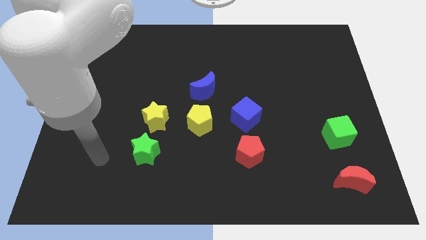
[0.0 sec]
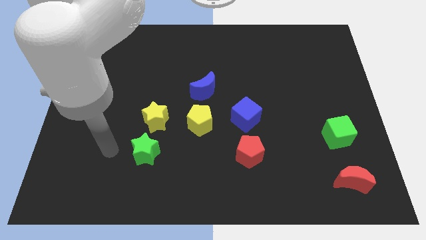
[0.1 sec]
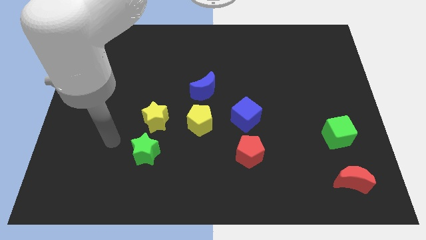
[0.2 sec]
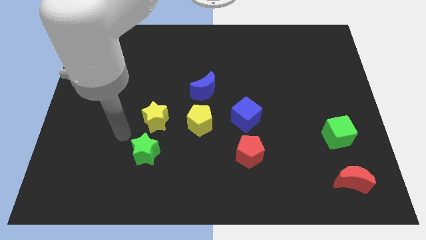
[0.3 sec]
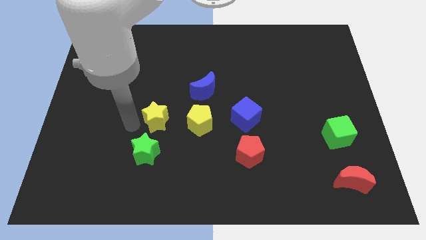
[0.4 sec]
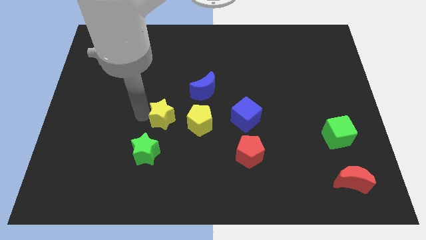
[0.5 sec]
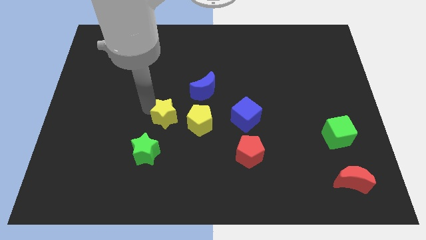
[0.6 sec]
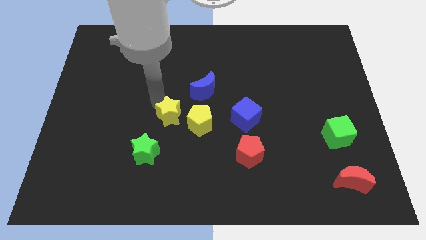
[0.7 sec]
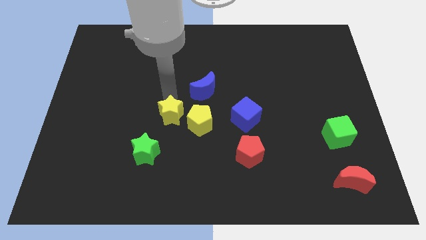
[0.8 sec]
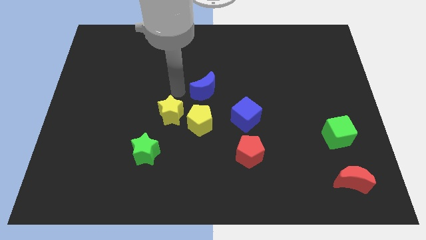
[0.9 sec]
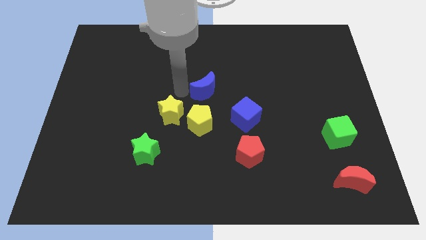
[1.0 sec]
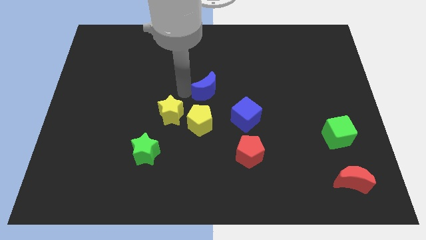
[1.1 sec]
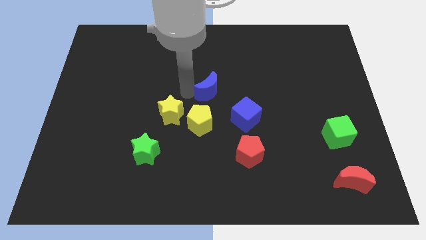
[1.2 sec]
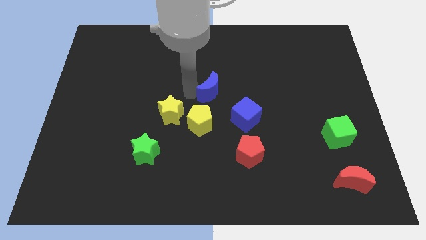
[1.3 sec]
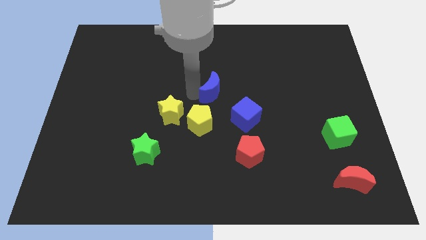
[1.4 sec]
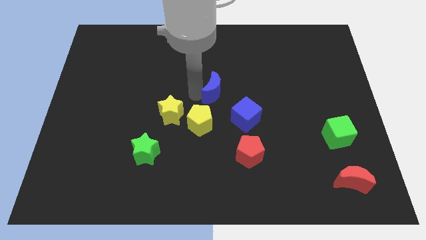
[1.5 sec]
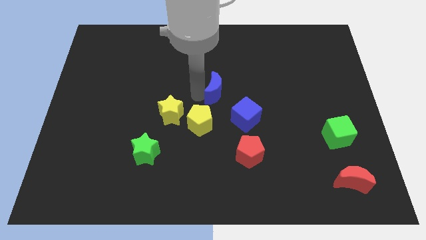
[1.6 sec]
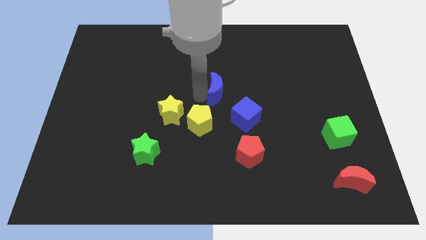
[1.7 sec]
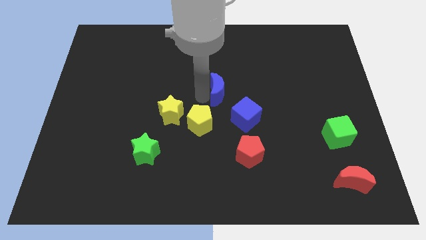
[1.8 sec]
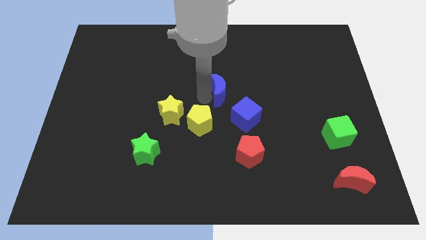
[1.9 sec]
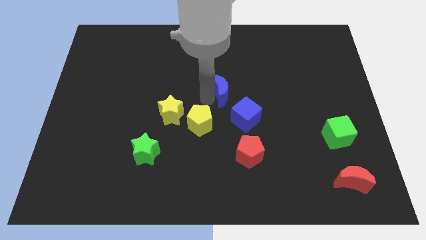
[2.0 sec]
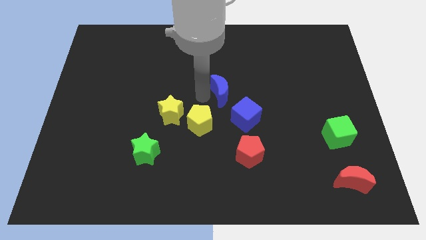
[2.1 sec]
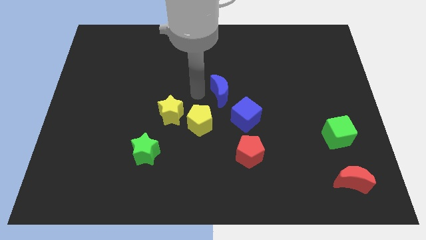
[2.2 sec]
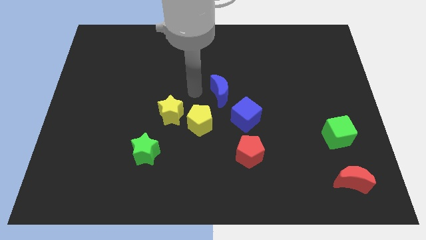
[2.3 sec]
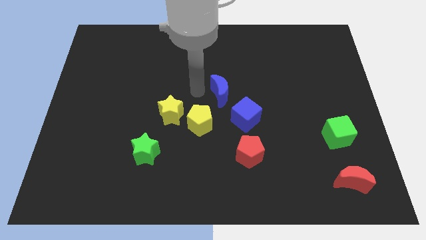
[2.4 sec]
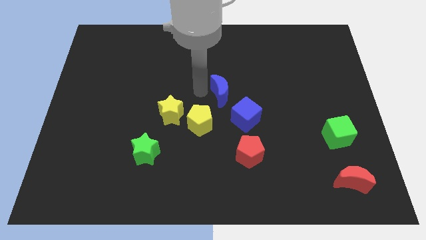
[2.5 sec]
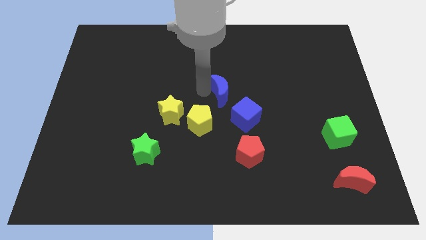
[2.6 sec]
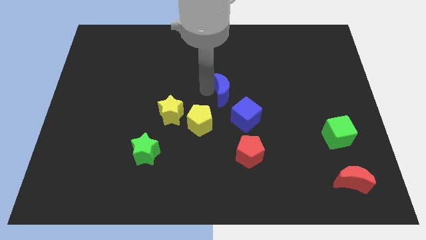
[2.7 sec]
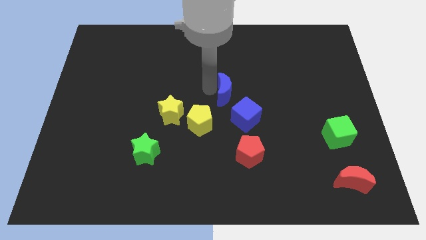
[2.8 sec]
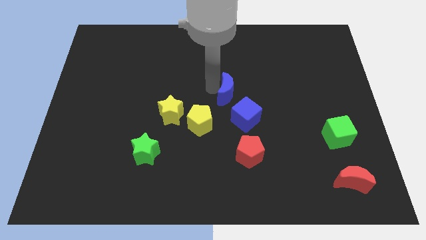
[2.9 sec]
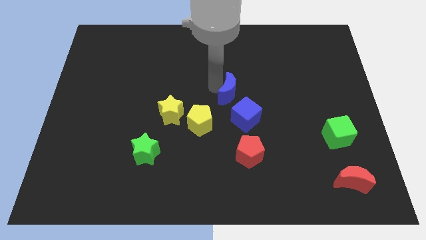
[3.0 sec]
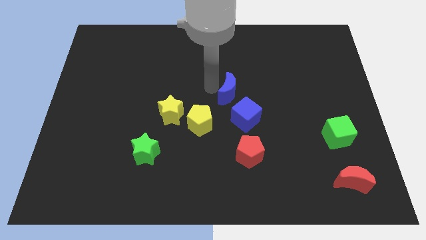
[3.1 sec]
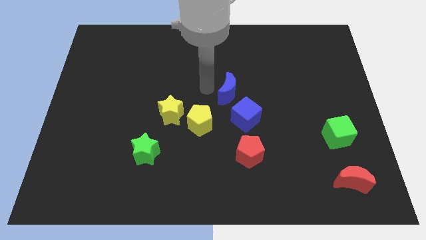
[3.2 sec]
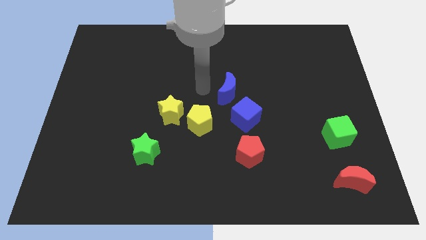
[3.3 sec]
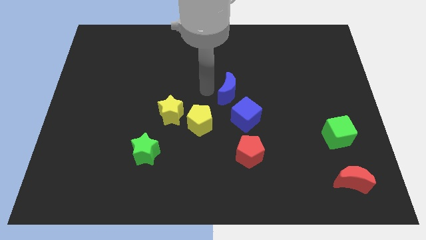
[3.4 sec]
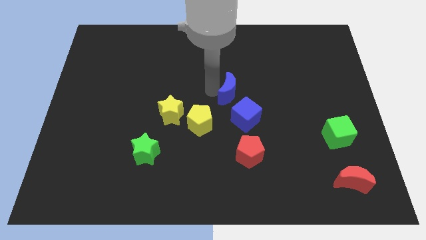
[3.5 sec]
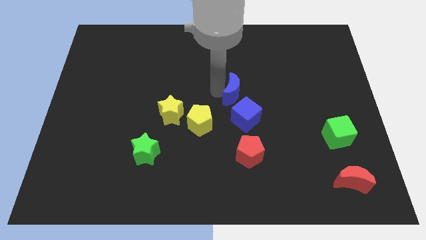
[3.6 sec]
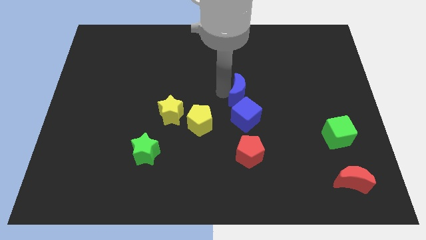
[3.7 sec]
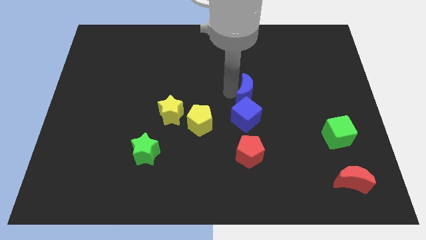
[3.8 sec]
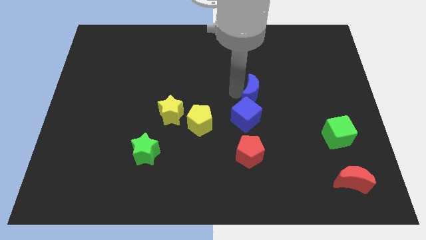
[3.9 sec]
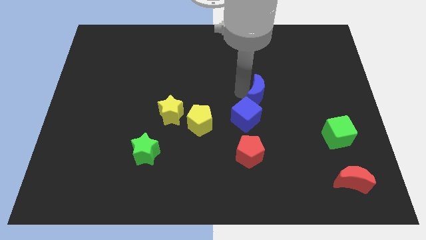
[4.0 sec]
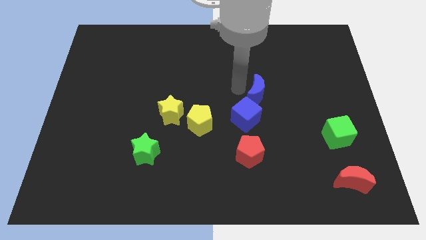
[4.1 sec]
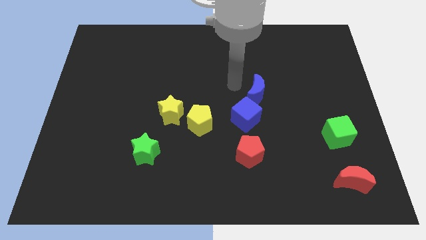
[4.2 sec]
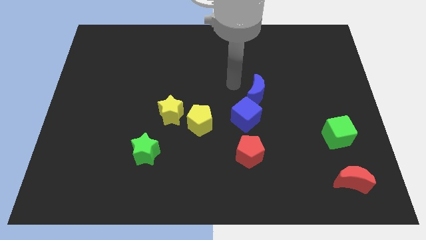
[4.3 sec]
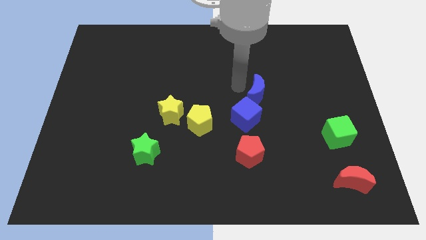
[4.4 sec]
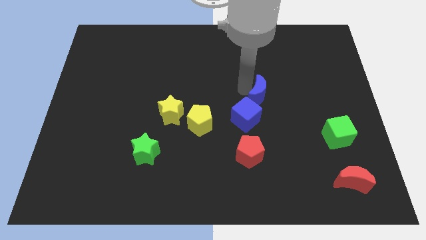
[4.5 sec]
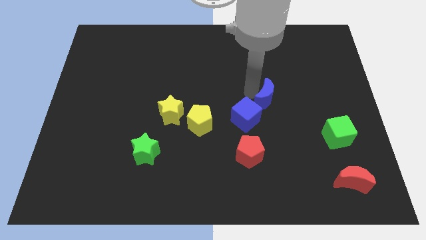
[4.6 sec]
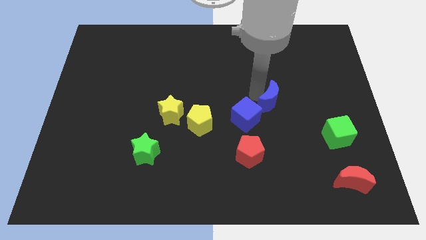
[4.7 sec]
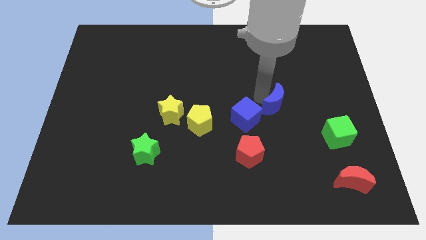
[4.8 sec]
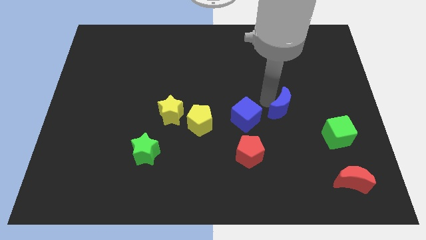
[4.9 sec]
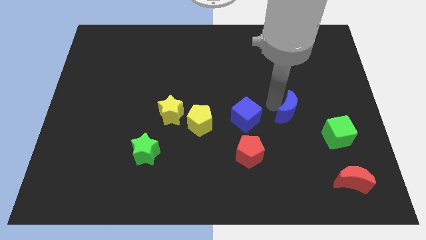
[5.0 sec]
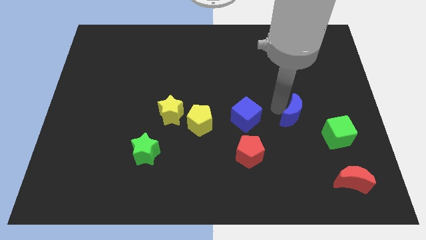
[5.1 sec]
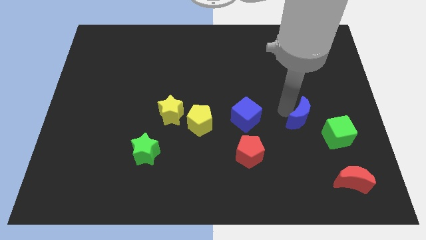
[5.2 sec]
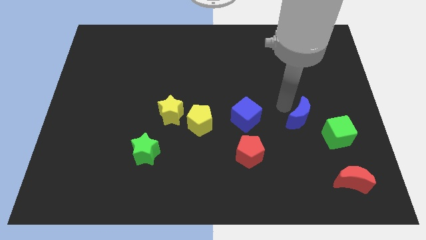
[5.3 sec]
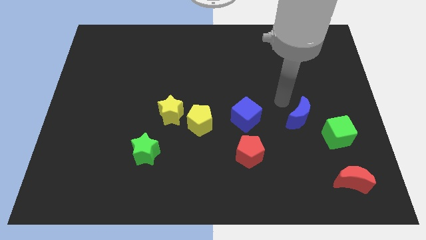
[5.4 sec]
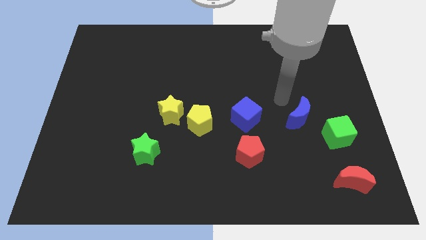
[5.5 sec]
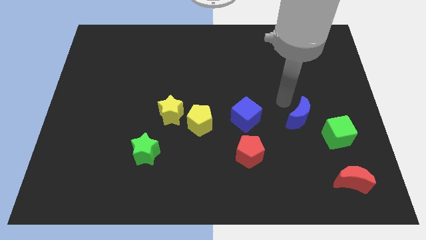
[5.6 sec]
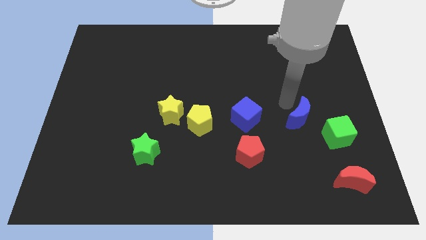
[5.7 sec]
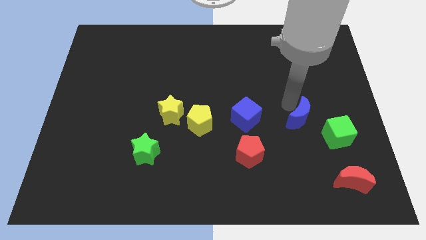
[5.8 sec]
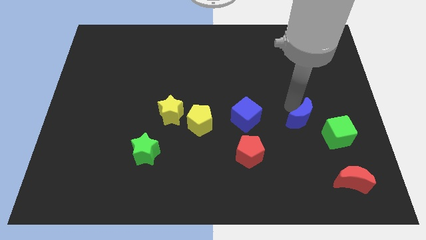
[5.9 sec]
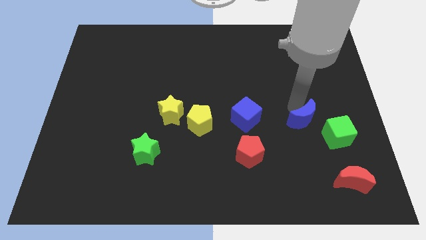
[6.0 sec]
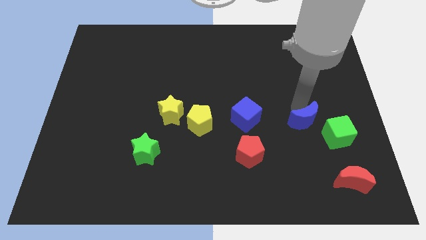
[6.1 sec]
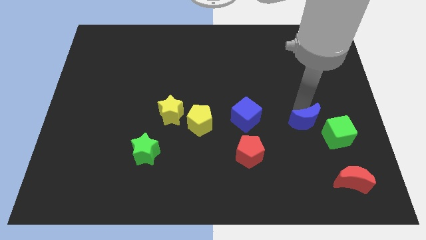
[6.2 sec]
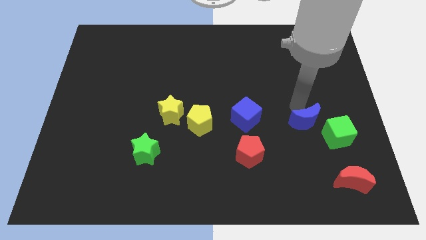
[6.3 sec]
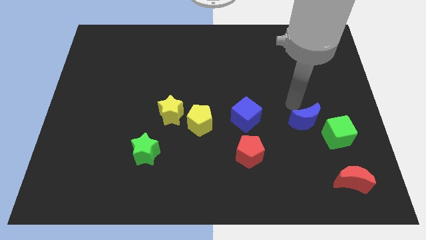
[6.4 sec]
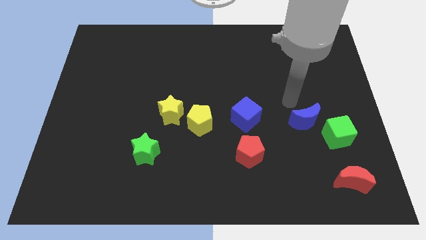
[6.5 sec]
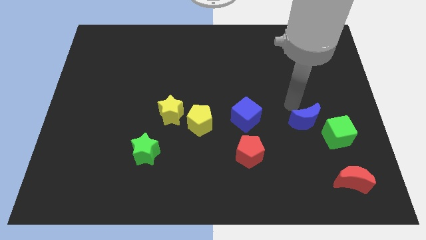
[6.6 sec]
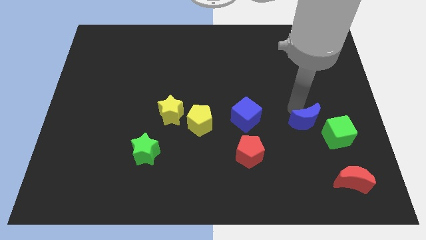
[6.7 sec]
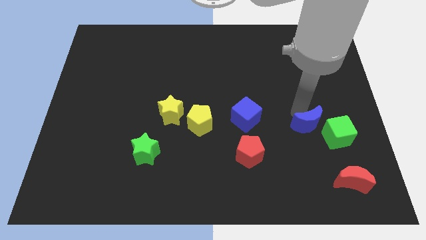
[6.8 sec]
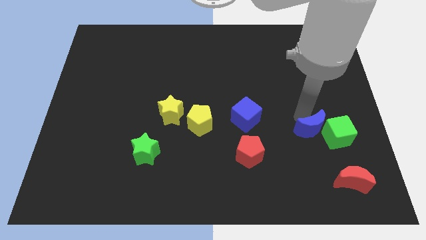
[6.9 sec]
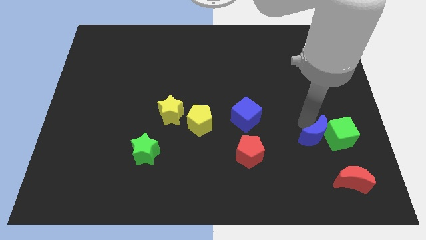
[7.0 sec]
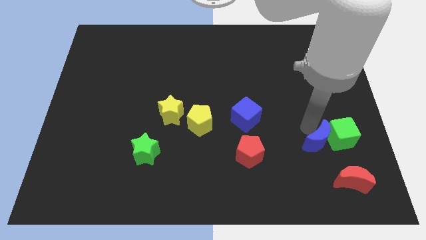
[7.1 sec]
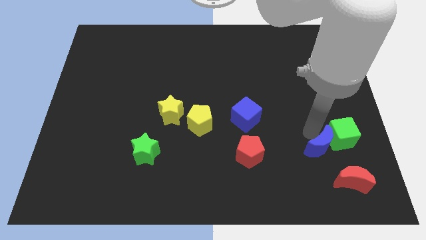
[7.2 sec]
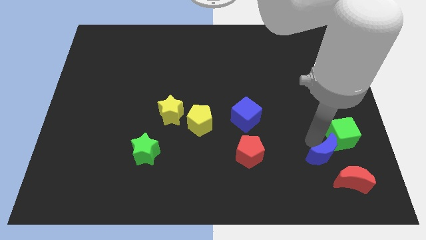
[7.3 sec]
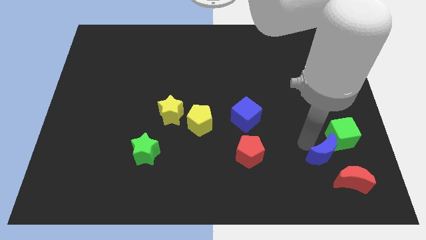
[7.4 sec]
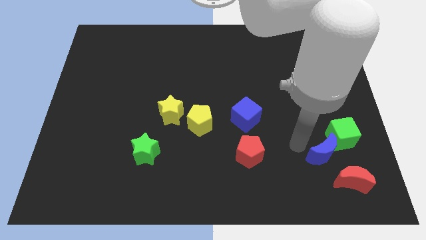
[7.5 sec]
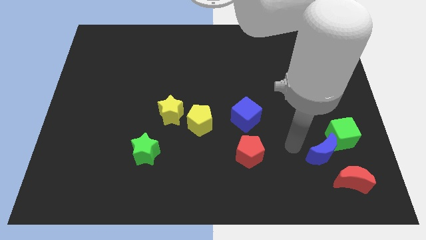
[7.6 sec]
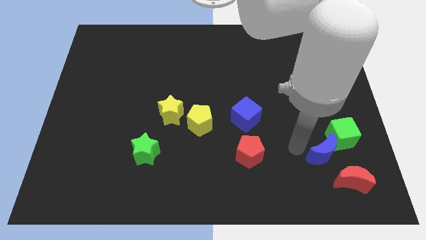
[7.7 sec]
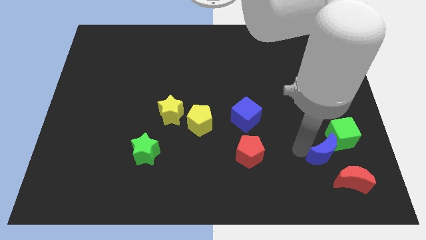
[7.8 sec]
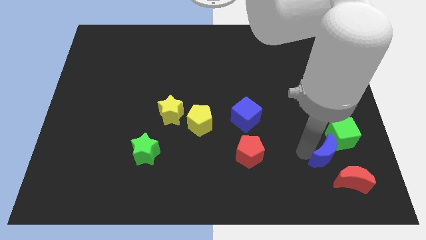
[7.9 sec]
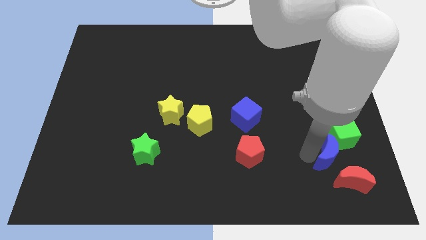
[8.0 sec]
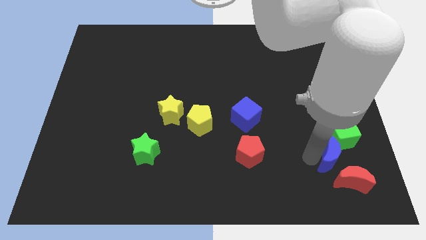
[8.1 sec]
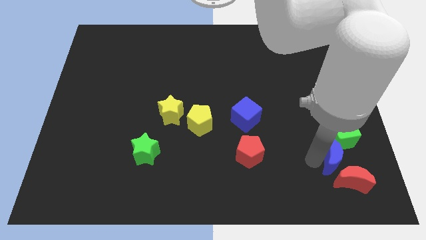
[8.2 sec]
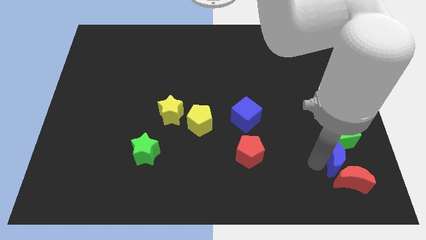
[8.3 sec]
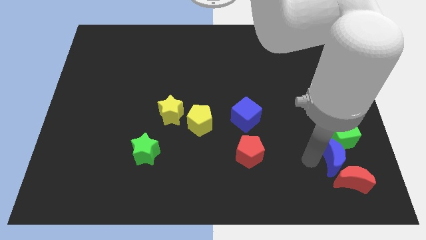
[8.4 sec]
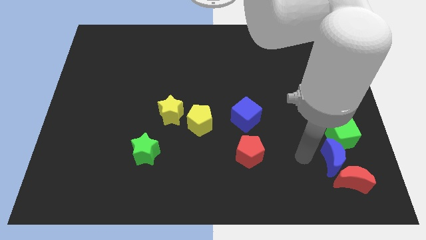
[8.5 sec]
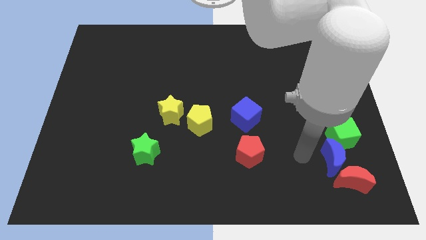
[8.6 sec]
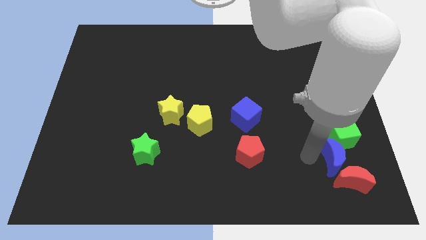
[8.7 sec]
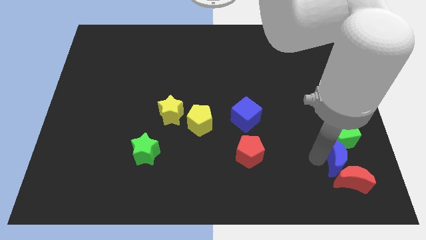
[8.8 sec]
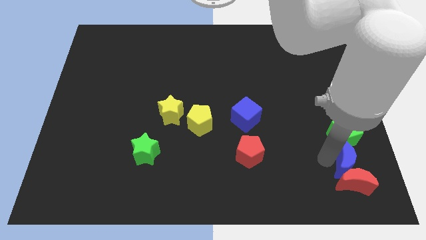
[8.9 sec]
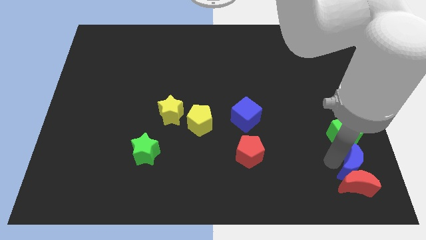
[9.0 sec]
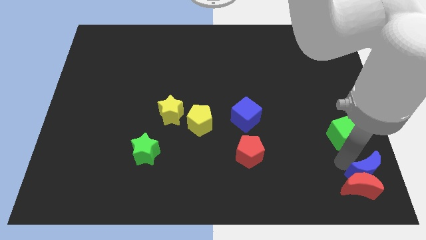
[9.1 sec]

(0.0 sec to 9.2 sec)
put the blue moon to the bottom right corner
